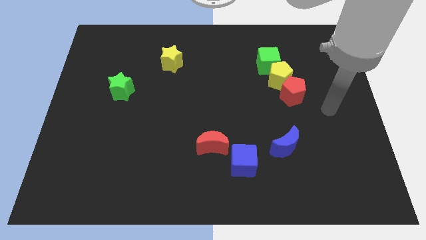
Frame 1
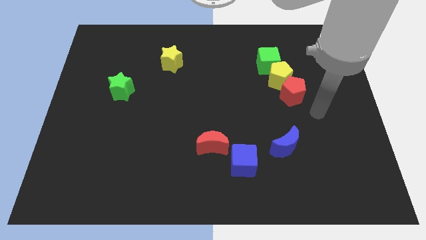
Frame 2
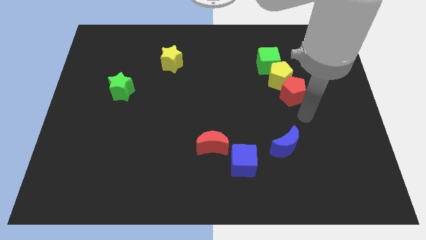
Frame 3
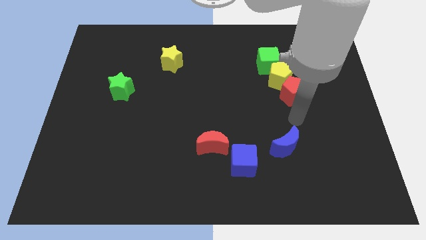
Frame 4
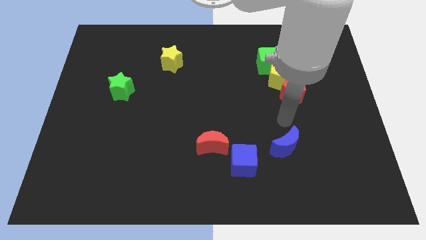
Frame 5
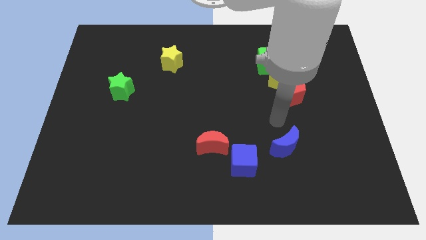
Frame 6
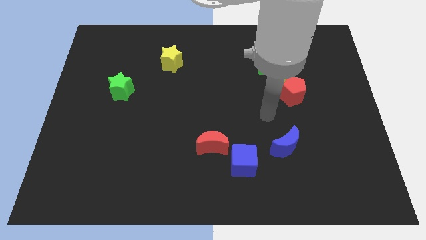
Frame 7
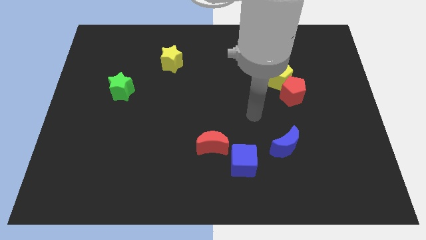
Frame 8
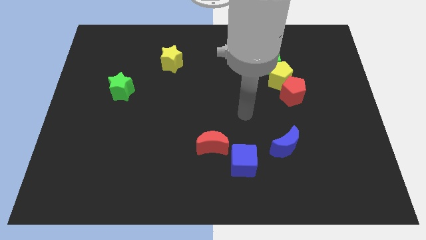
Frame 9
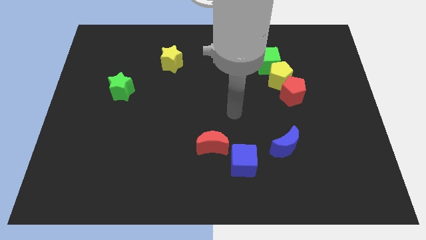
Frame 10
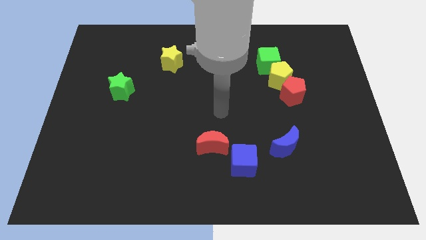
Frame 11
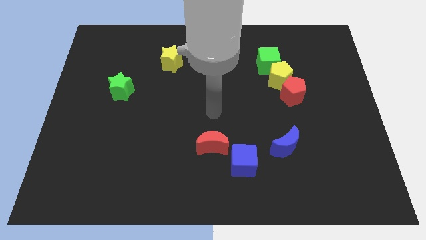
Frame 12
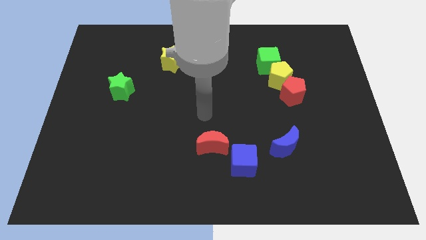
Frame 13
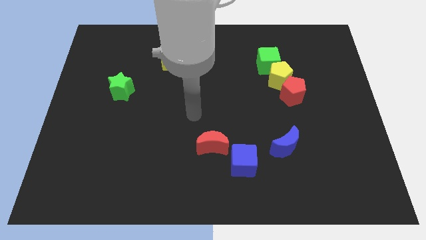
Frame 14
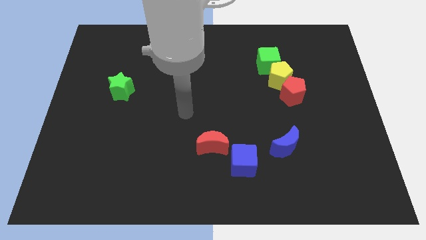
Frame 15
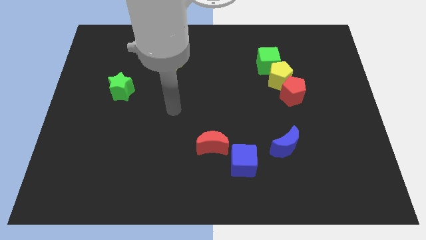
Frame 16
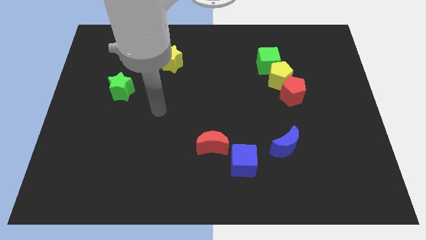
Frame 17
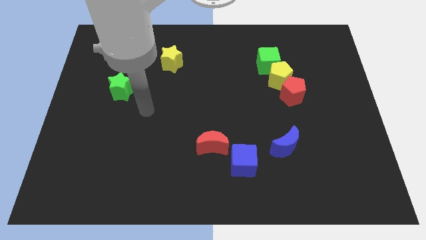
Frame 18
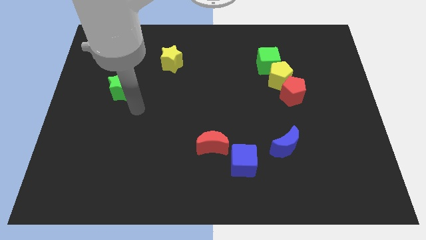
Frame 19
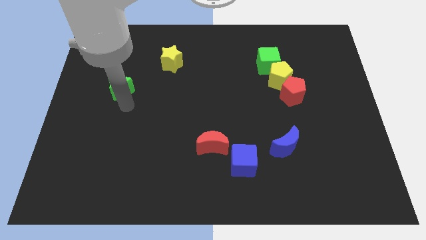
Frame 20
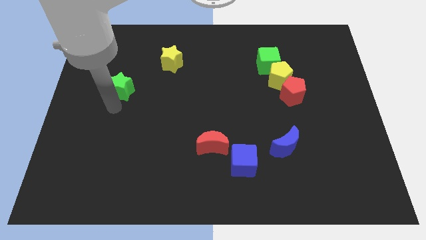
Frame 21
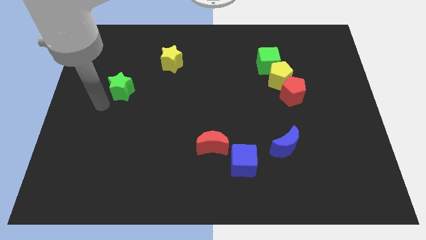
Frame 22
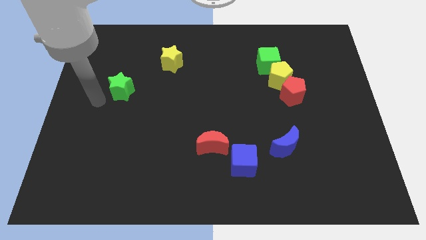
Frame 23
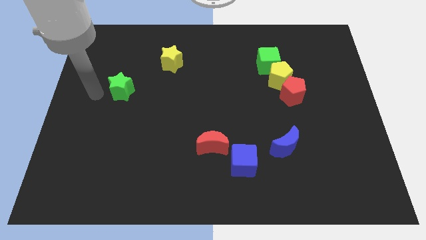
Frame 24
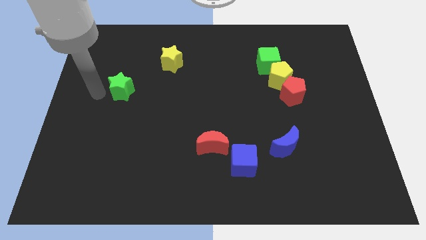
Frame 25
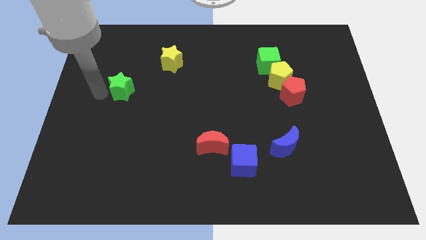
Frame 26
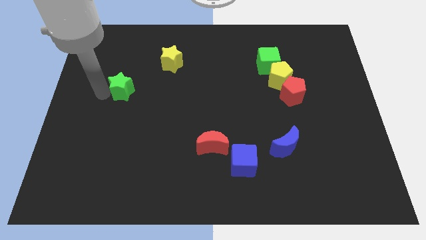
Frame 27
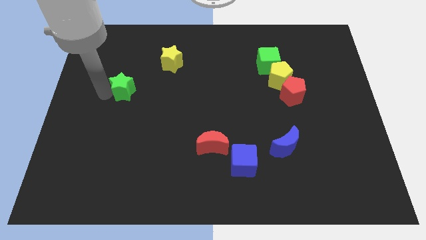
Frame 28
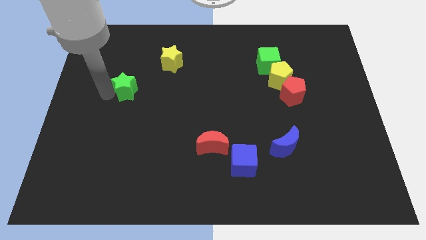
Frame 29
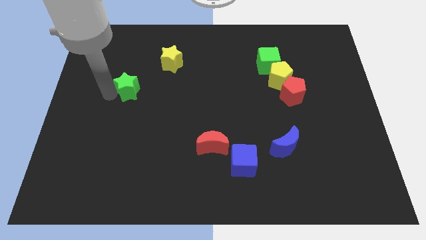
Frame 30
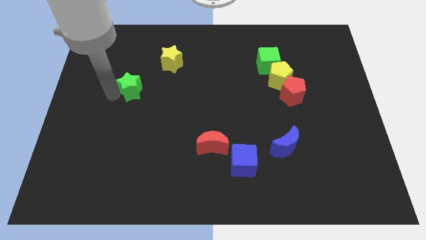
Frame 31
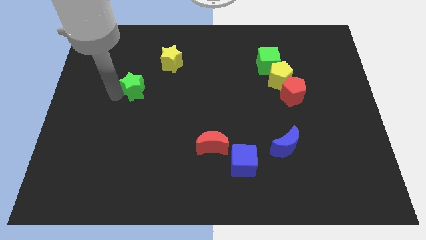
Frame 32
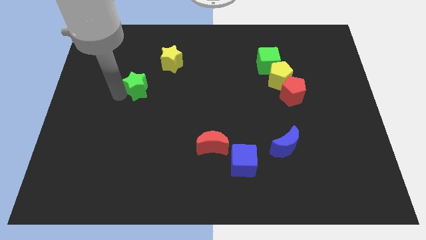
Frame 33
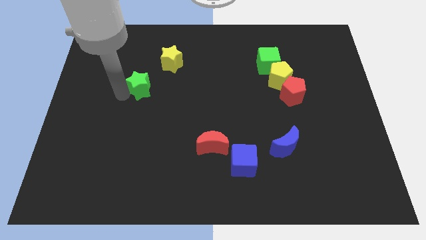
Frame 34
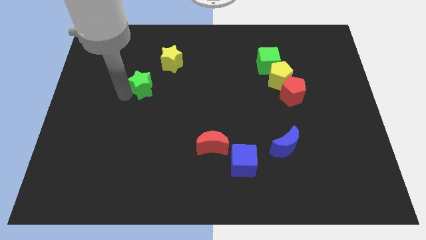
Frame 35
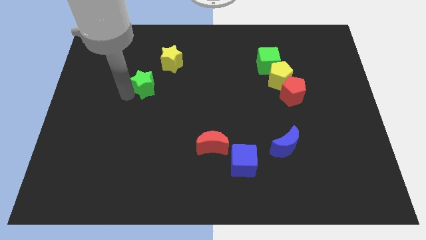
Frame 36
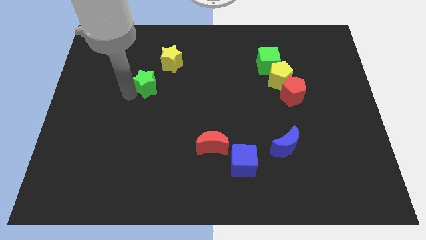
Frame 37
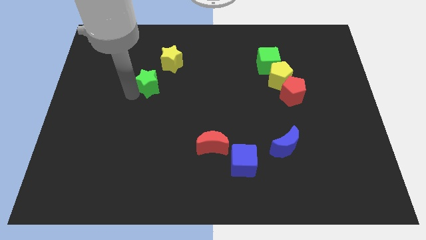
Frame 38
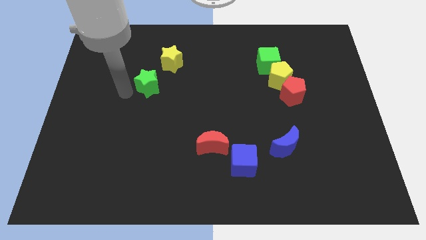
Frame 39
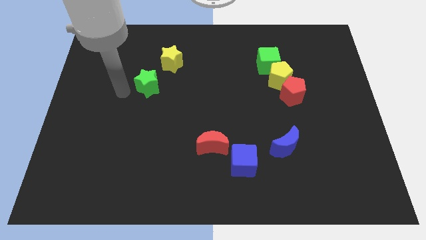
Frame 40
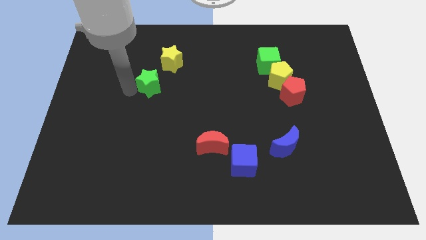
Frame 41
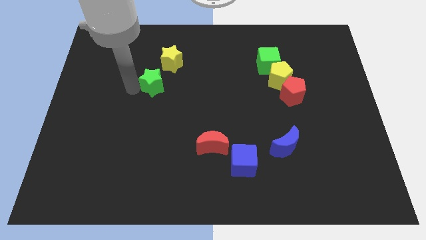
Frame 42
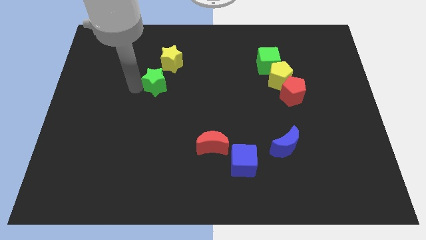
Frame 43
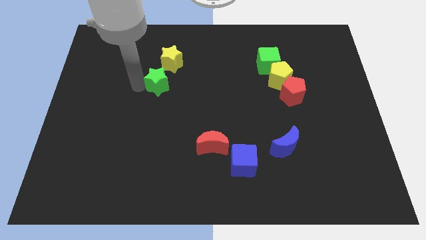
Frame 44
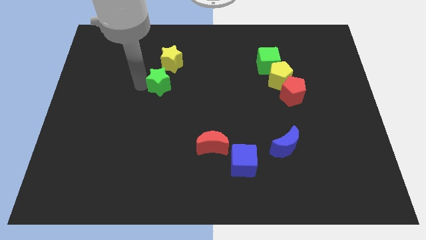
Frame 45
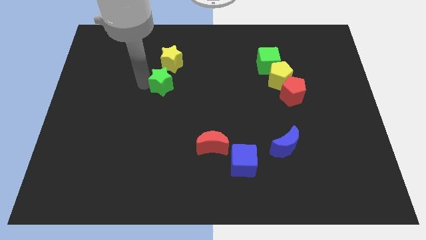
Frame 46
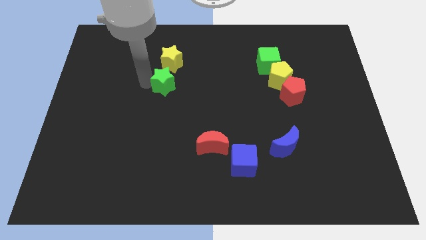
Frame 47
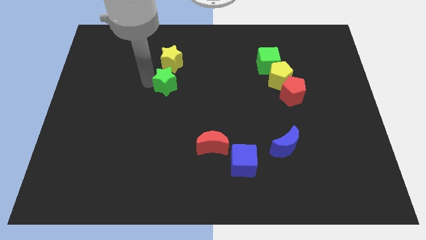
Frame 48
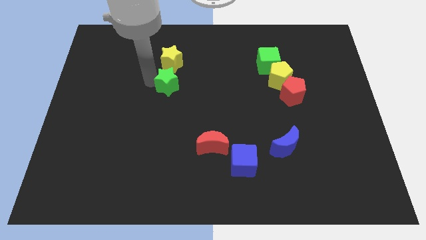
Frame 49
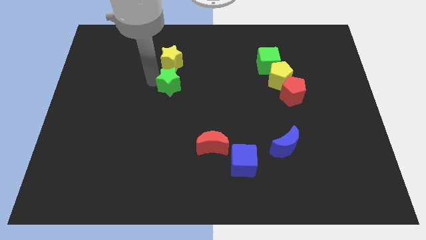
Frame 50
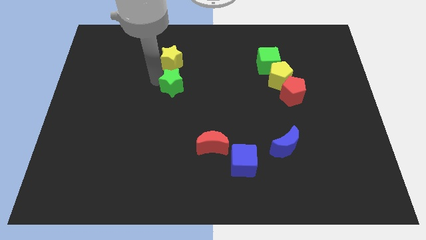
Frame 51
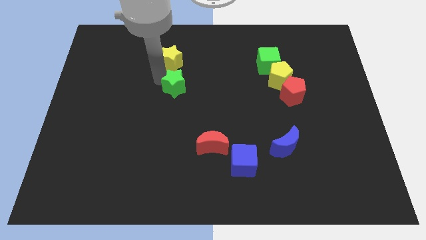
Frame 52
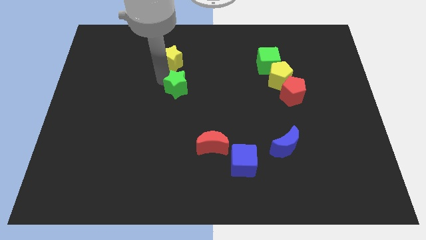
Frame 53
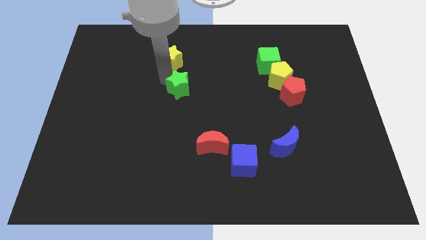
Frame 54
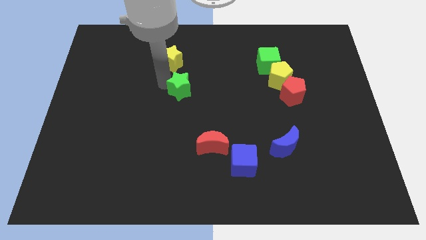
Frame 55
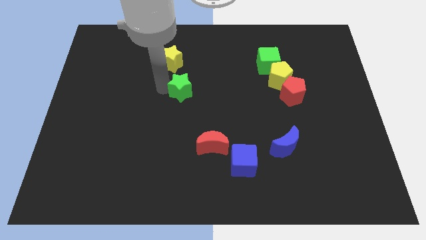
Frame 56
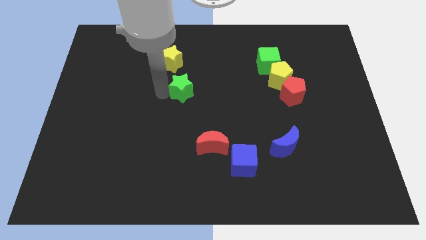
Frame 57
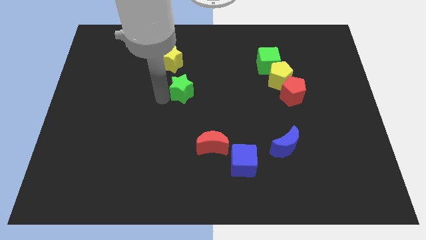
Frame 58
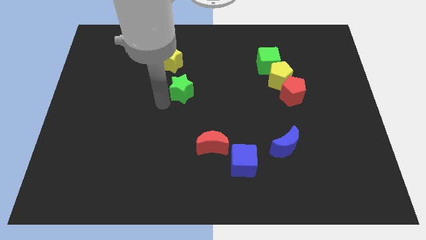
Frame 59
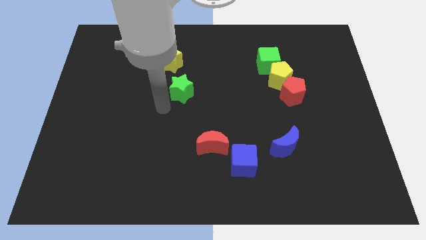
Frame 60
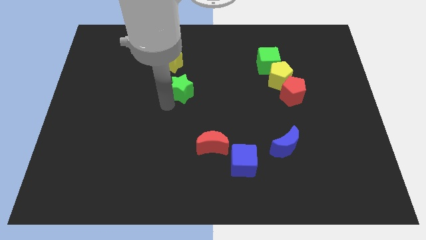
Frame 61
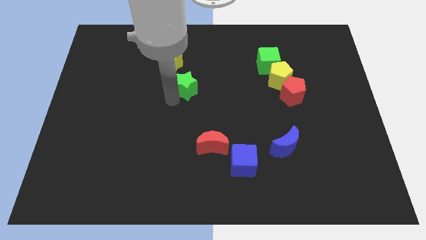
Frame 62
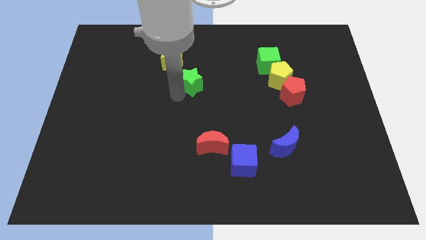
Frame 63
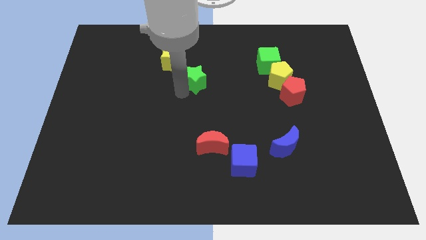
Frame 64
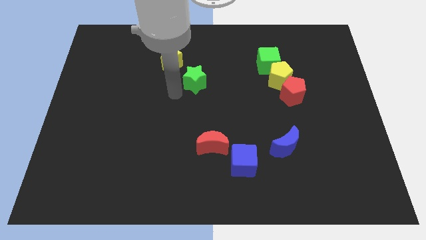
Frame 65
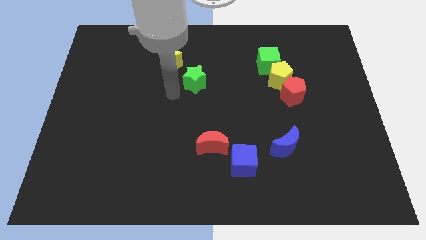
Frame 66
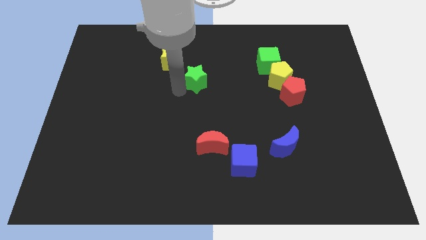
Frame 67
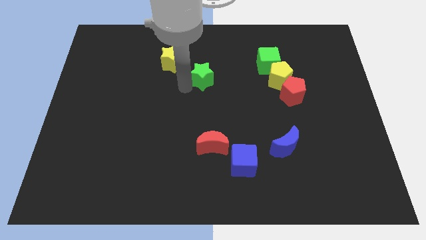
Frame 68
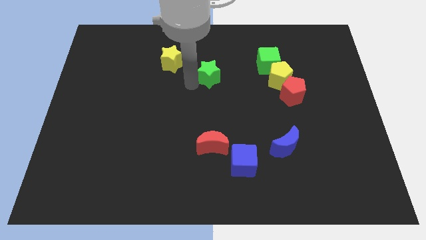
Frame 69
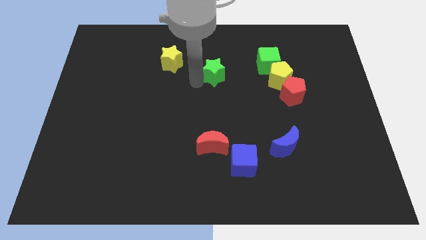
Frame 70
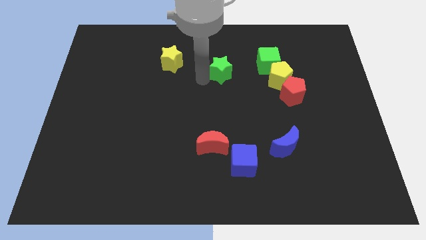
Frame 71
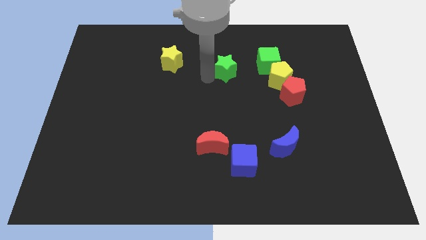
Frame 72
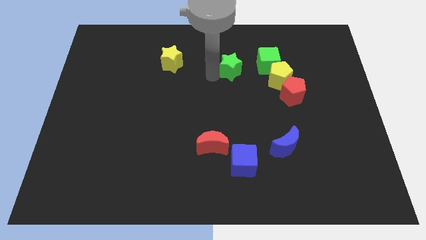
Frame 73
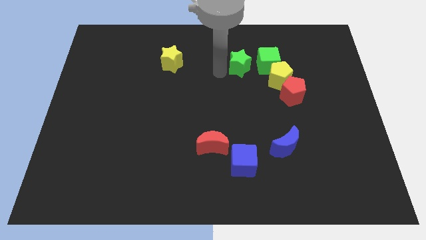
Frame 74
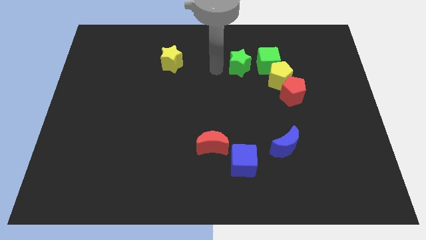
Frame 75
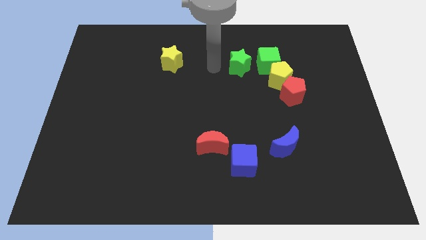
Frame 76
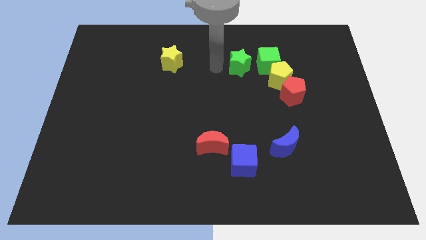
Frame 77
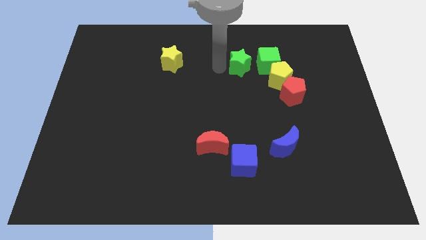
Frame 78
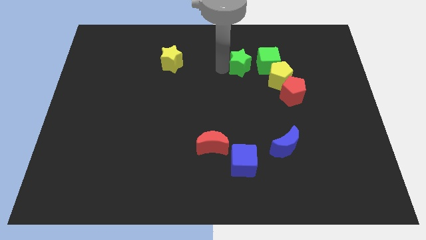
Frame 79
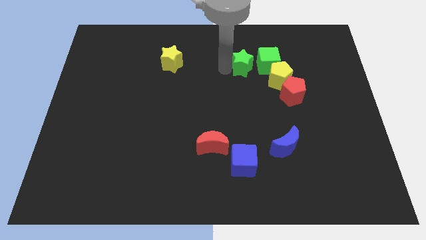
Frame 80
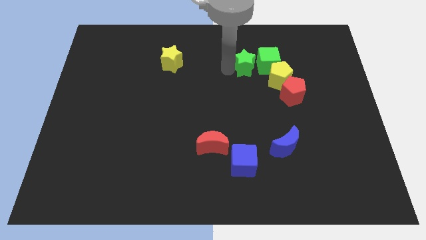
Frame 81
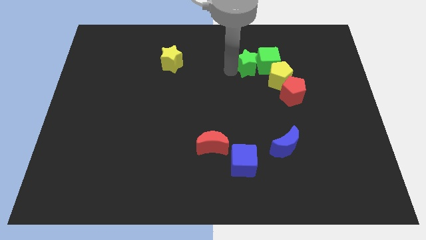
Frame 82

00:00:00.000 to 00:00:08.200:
move the green star towards the green cube
